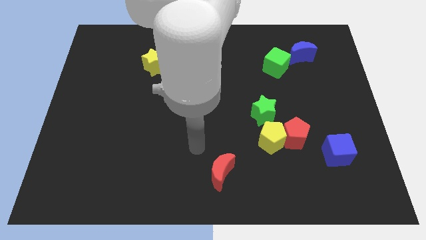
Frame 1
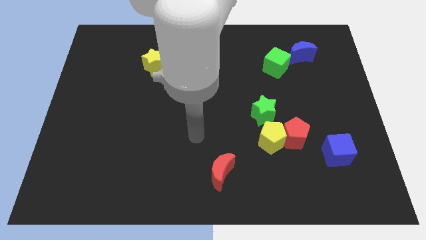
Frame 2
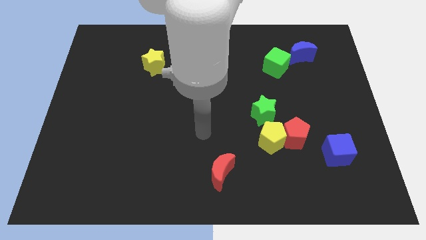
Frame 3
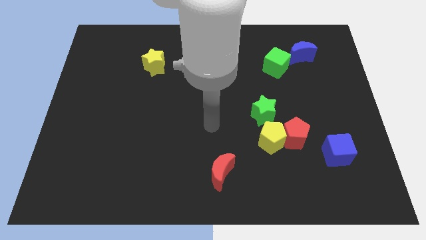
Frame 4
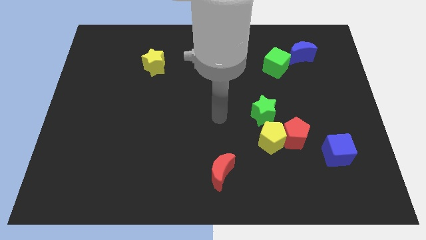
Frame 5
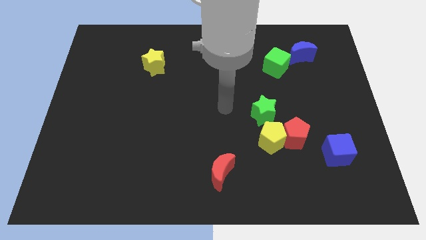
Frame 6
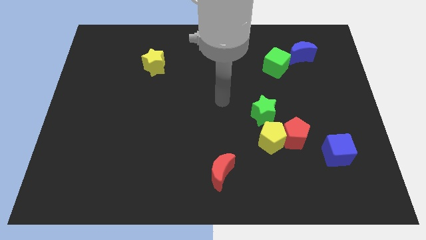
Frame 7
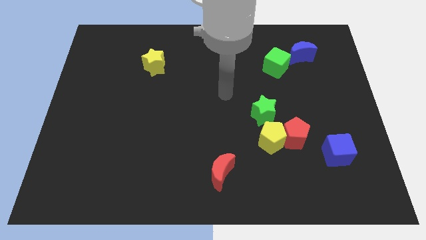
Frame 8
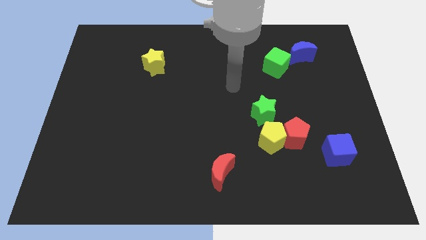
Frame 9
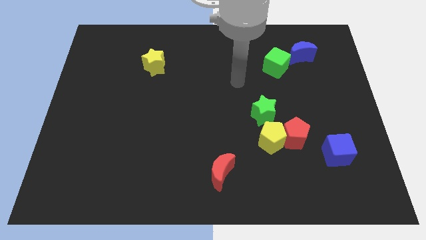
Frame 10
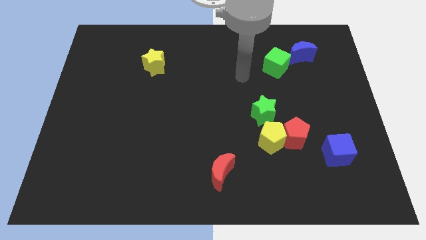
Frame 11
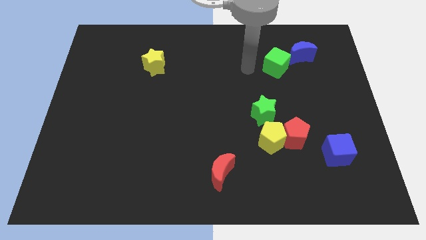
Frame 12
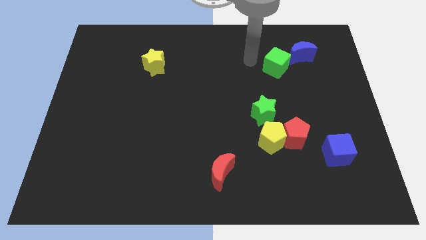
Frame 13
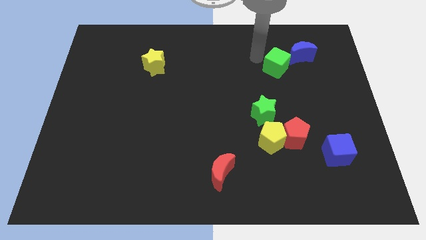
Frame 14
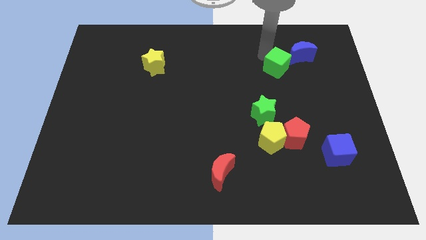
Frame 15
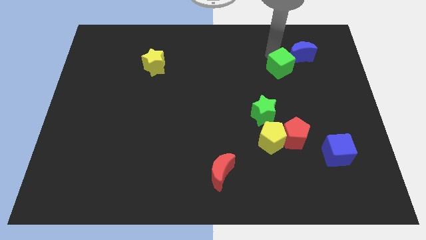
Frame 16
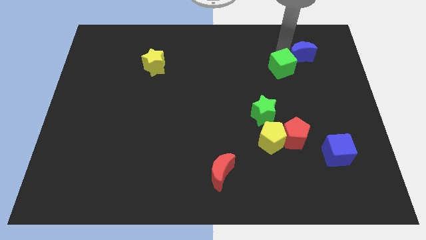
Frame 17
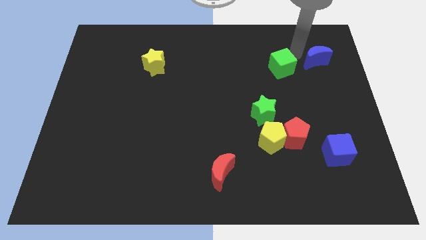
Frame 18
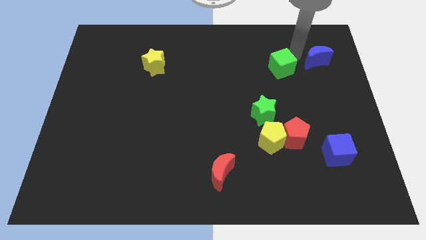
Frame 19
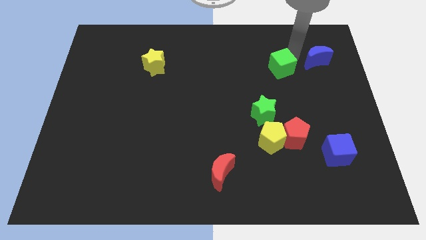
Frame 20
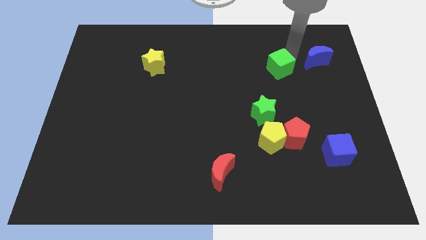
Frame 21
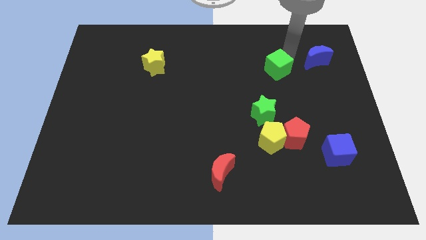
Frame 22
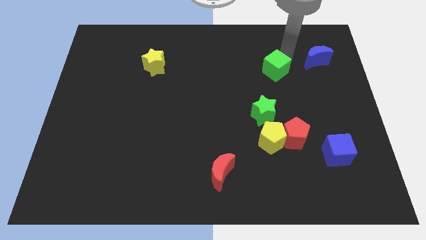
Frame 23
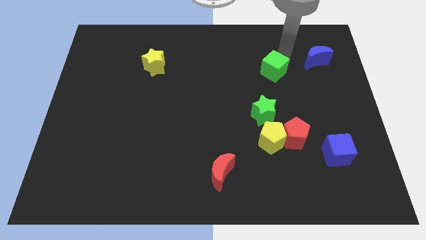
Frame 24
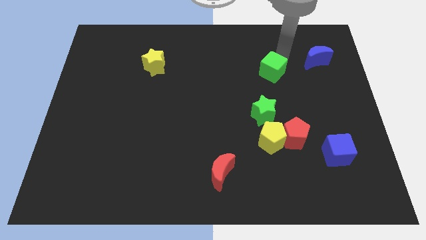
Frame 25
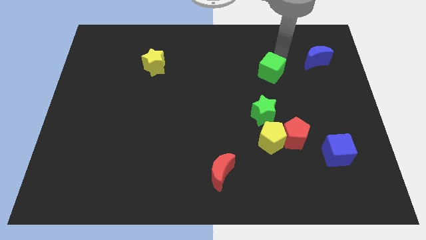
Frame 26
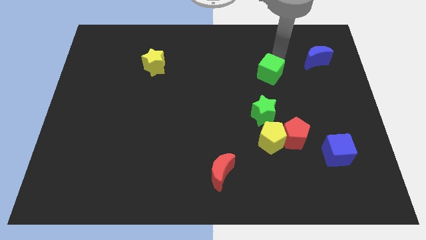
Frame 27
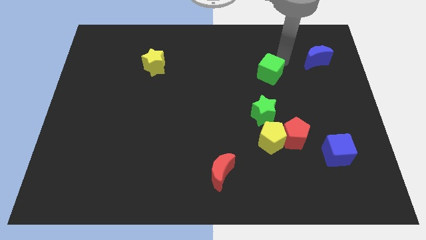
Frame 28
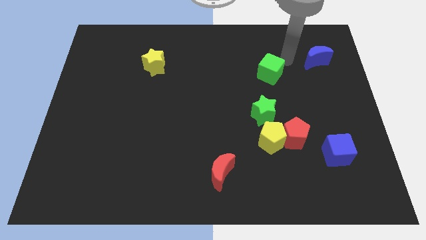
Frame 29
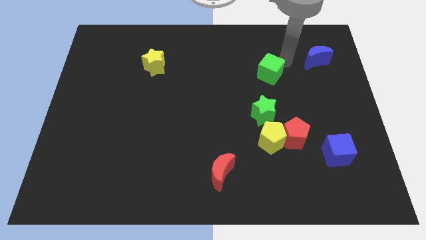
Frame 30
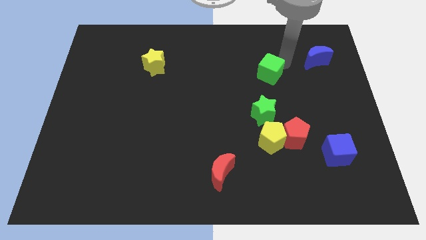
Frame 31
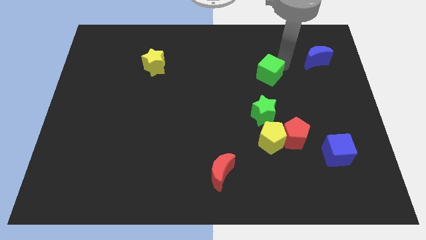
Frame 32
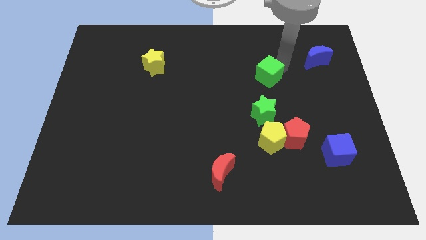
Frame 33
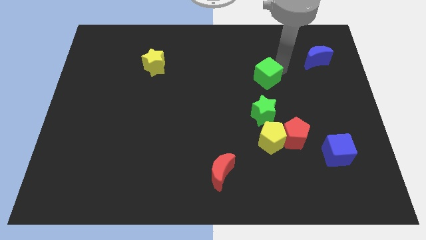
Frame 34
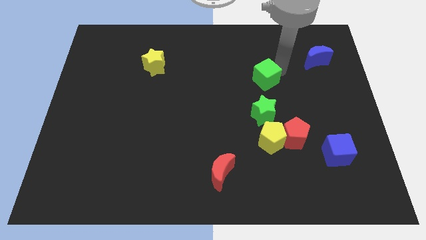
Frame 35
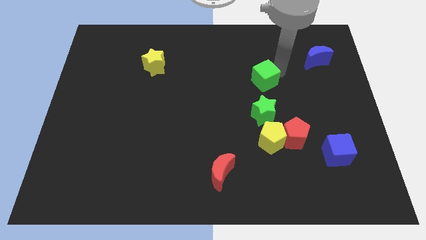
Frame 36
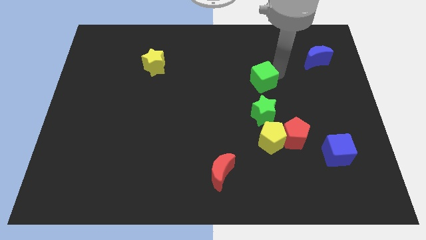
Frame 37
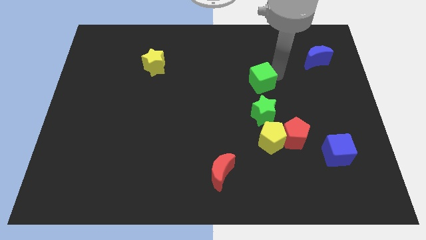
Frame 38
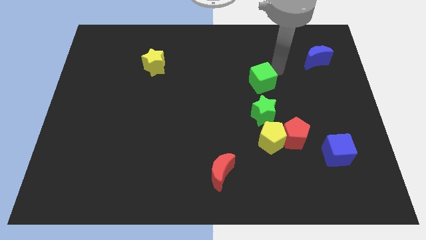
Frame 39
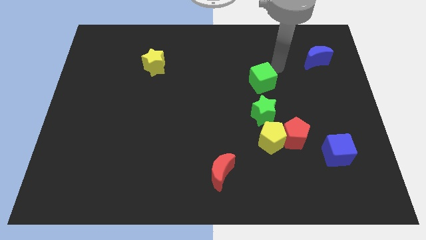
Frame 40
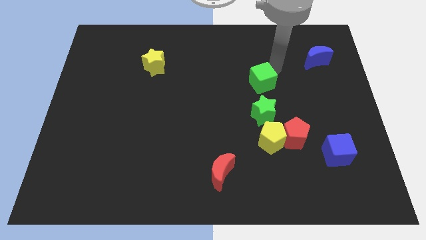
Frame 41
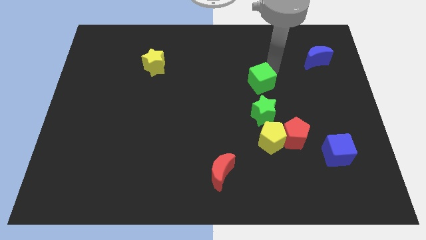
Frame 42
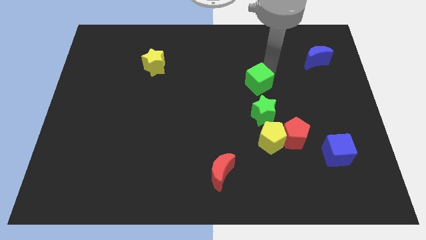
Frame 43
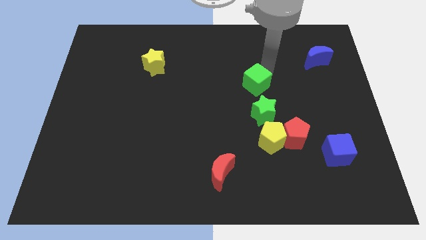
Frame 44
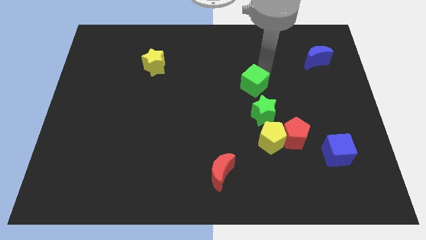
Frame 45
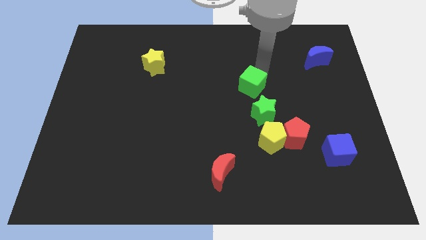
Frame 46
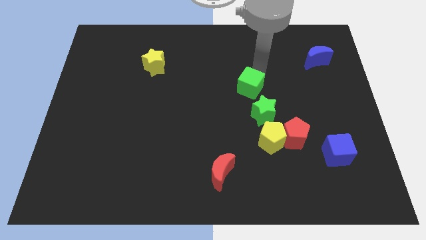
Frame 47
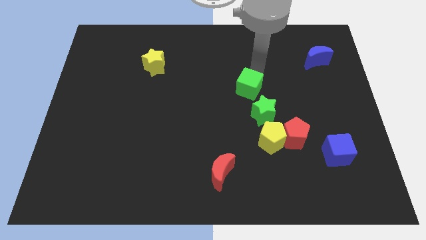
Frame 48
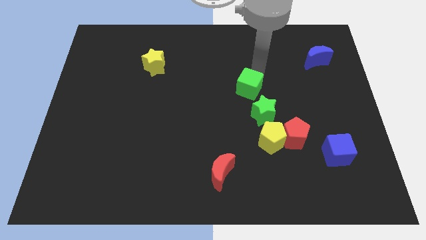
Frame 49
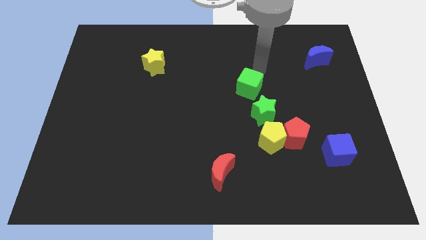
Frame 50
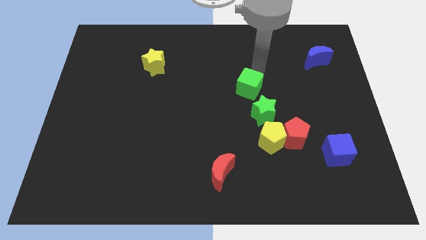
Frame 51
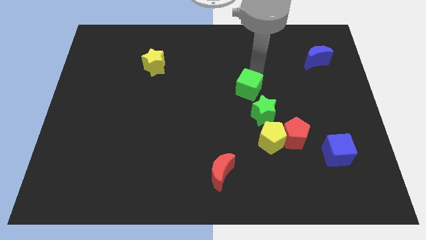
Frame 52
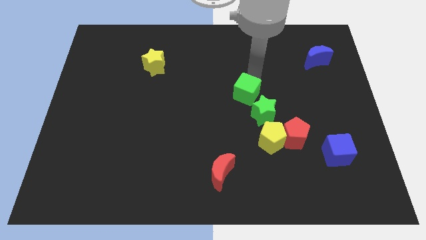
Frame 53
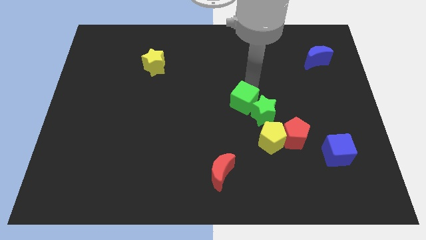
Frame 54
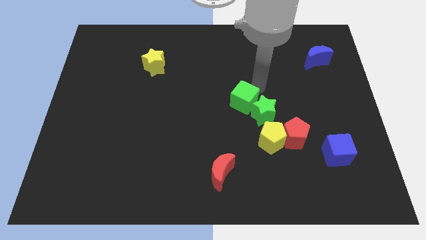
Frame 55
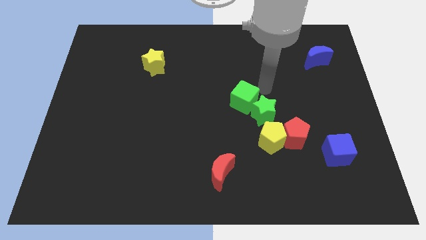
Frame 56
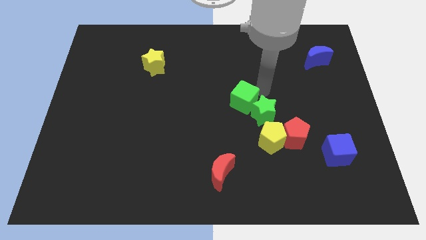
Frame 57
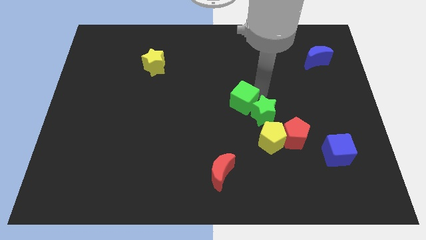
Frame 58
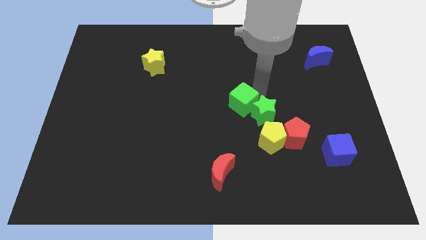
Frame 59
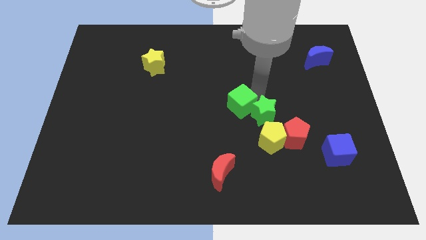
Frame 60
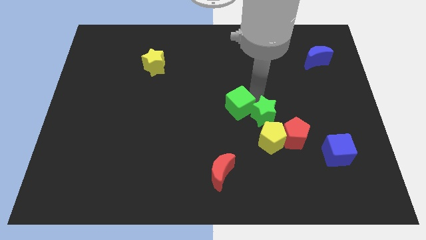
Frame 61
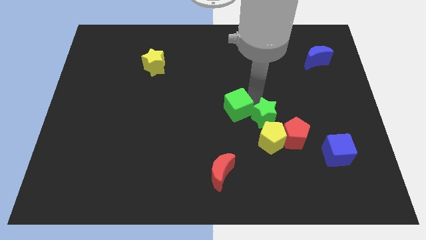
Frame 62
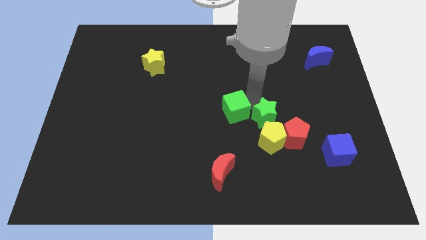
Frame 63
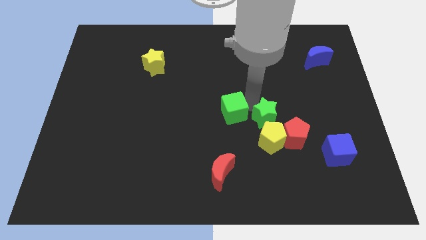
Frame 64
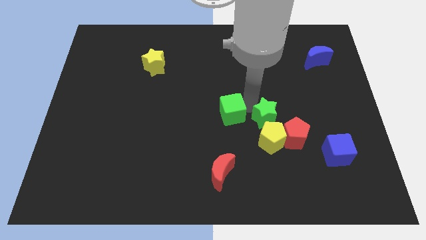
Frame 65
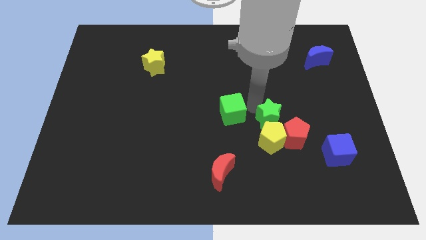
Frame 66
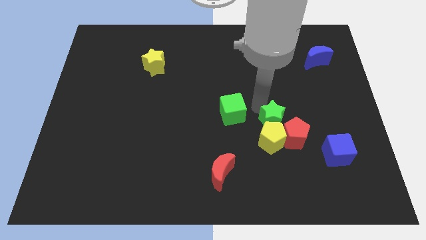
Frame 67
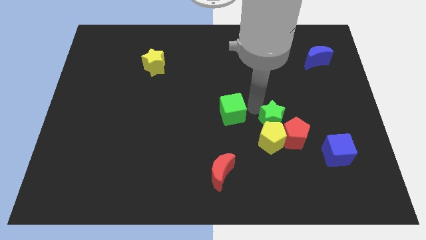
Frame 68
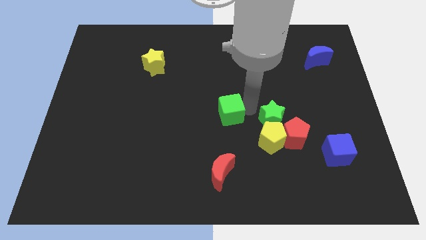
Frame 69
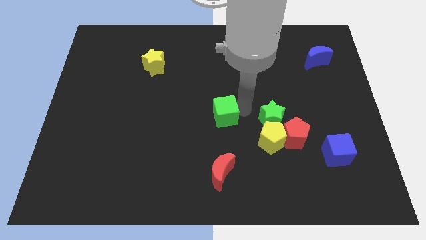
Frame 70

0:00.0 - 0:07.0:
slide the green cube down and then to the left

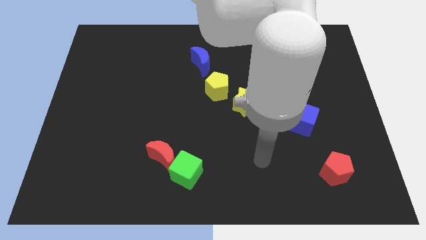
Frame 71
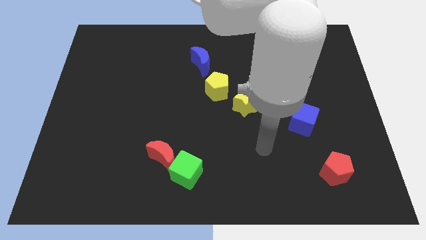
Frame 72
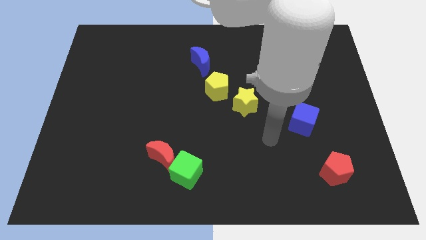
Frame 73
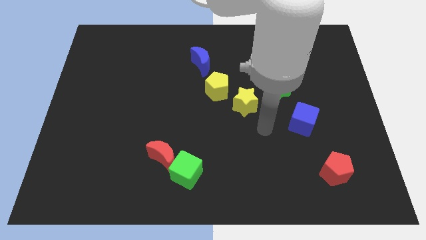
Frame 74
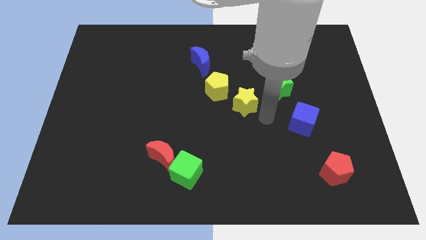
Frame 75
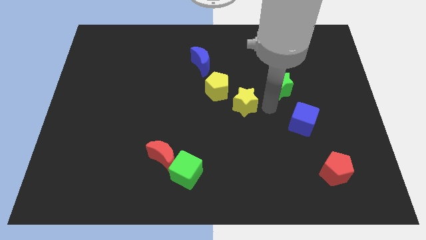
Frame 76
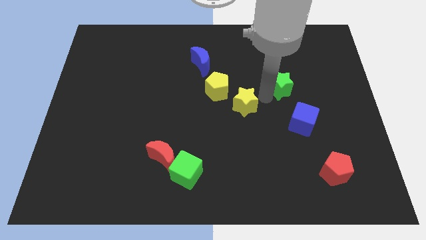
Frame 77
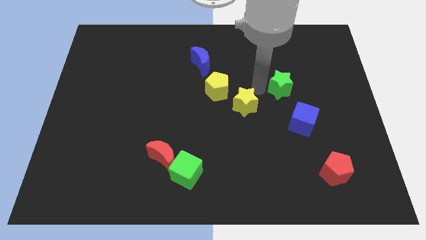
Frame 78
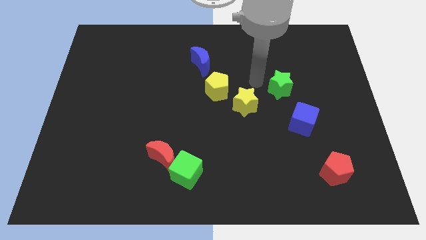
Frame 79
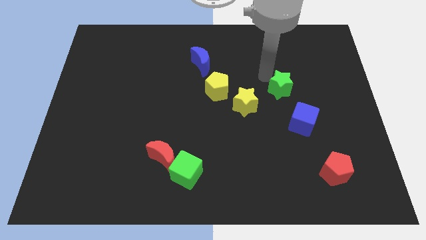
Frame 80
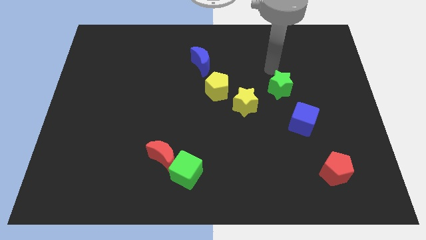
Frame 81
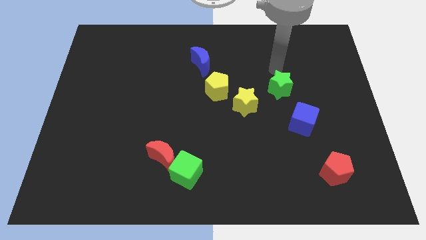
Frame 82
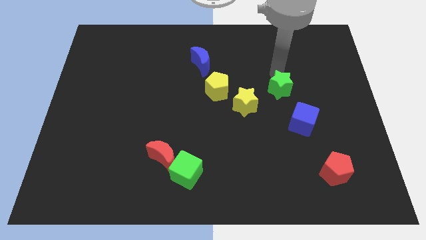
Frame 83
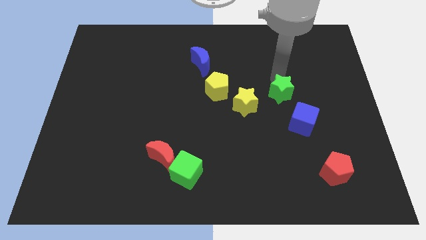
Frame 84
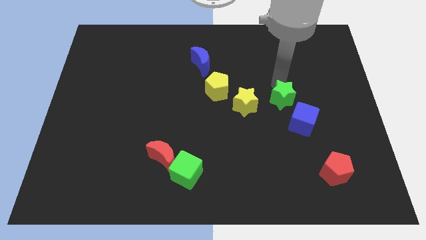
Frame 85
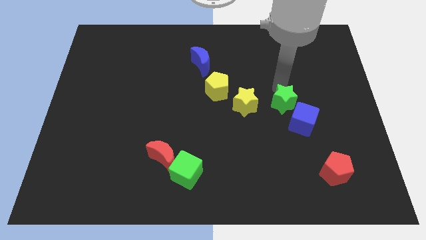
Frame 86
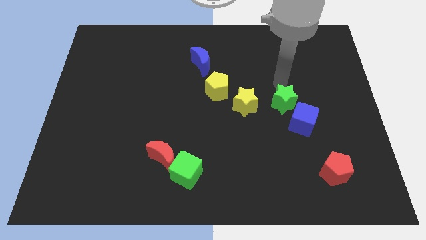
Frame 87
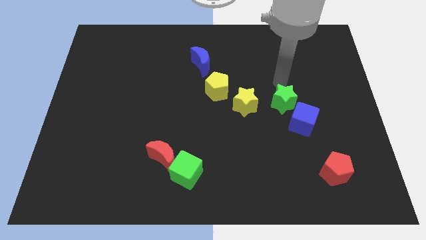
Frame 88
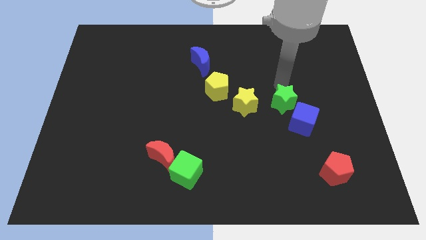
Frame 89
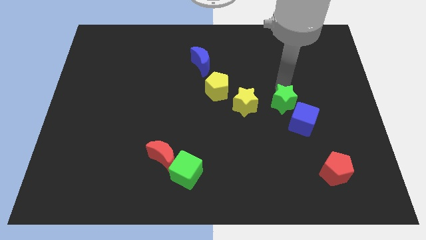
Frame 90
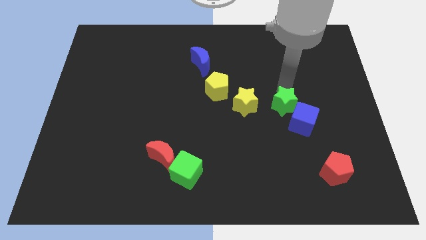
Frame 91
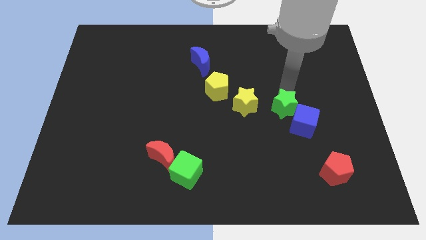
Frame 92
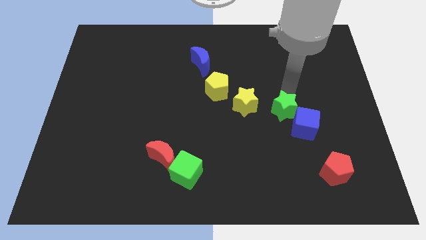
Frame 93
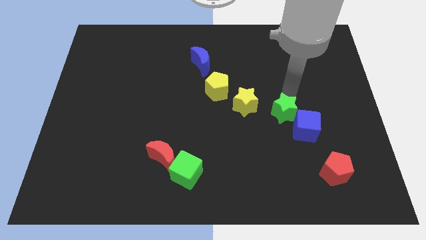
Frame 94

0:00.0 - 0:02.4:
slightly slide the green star down
